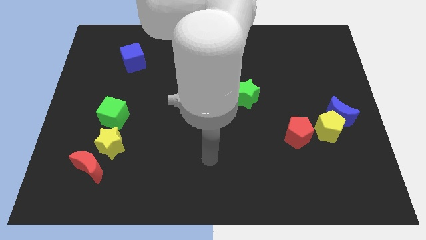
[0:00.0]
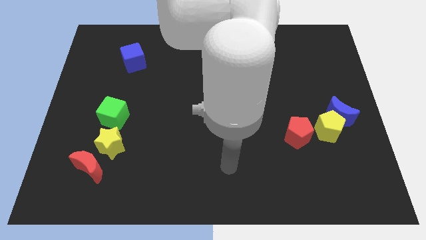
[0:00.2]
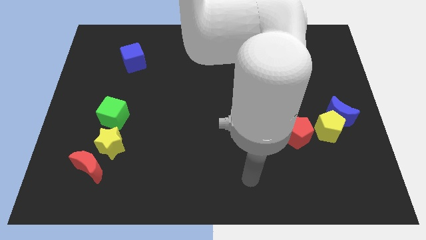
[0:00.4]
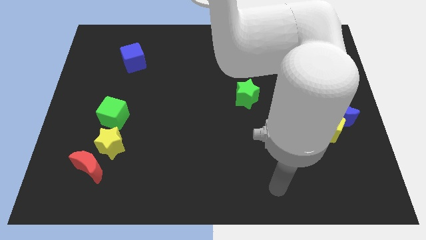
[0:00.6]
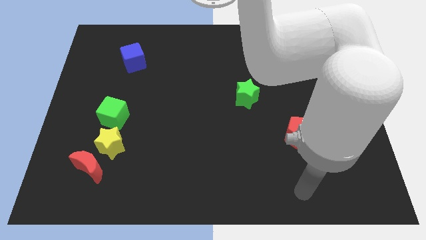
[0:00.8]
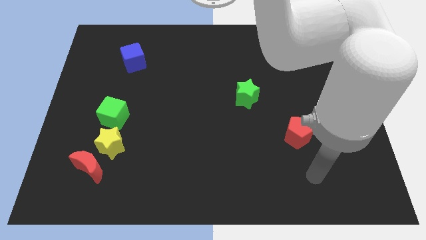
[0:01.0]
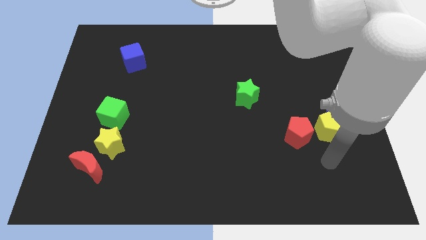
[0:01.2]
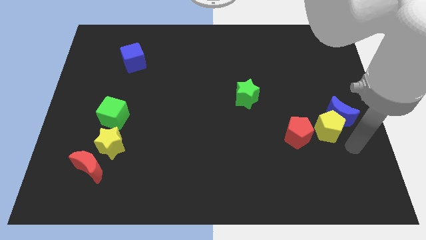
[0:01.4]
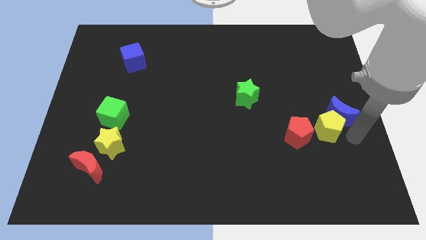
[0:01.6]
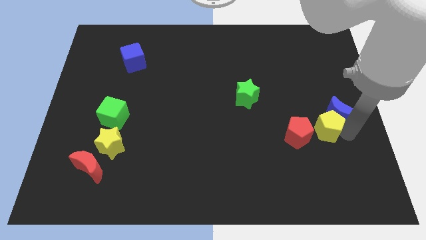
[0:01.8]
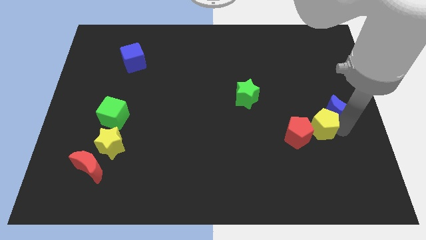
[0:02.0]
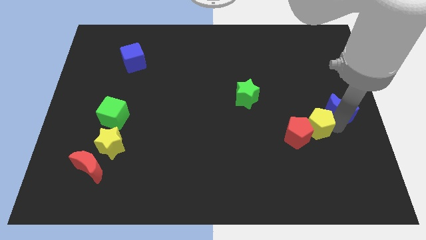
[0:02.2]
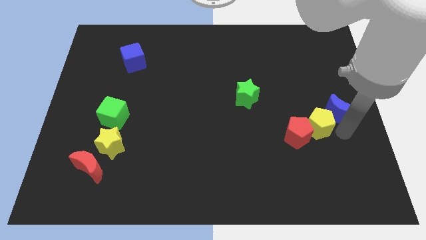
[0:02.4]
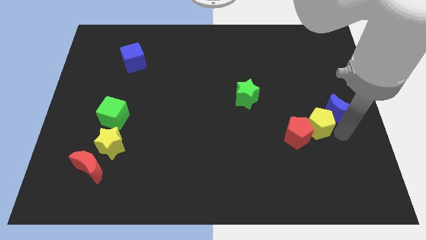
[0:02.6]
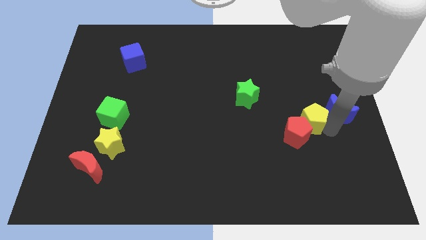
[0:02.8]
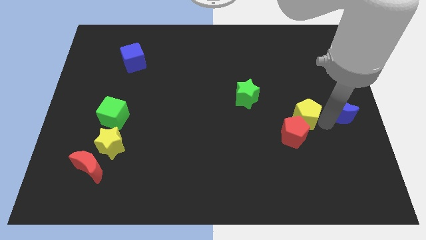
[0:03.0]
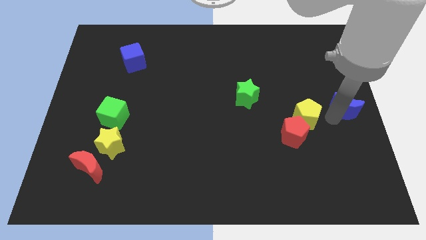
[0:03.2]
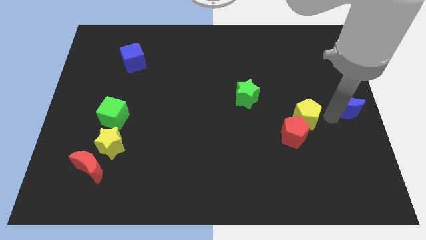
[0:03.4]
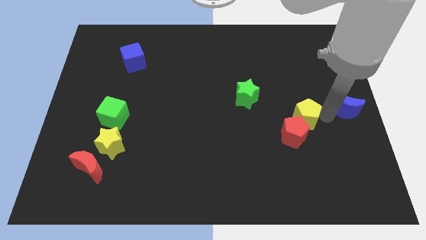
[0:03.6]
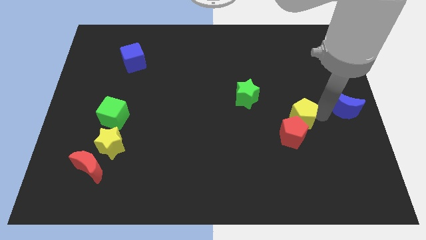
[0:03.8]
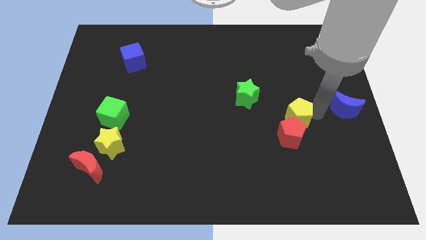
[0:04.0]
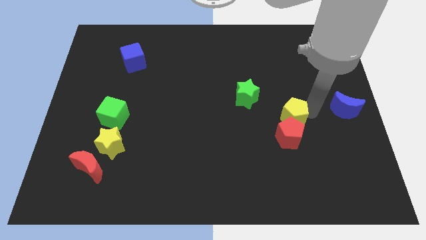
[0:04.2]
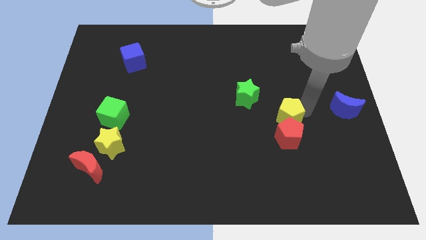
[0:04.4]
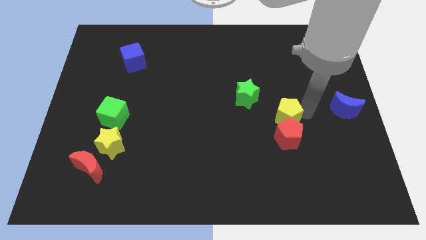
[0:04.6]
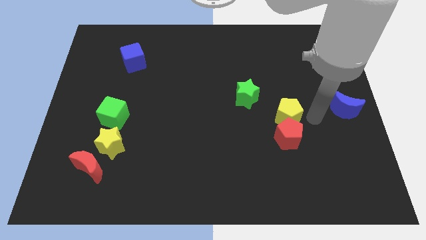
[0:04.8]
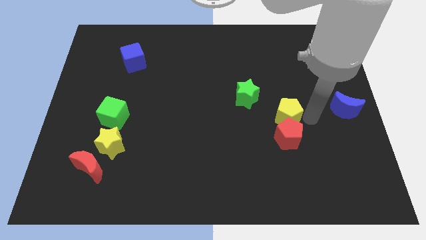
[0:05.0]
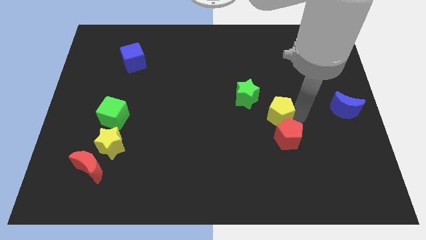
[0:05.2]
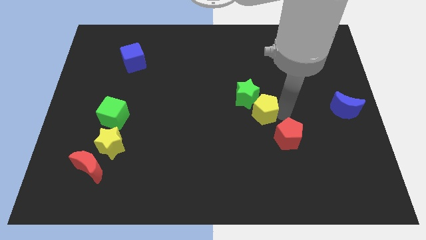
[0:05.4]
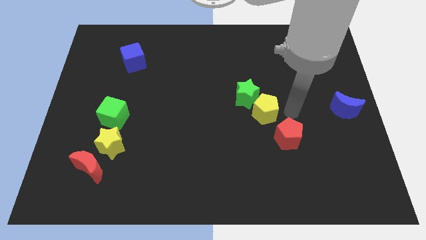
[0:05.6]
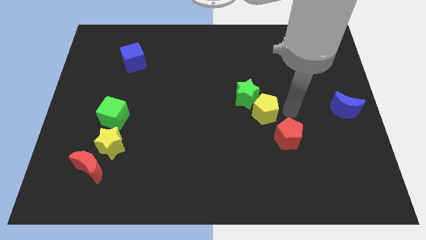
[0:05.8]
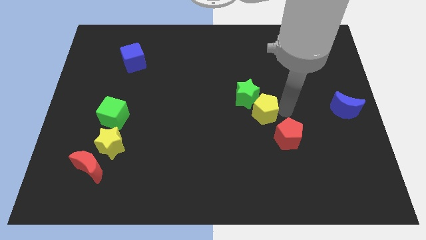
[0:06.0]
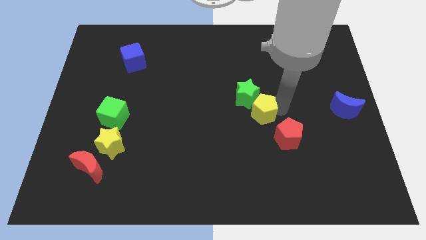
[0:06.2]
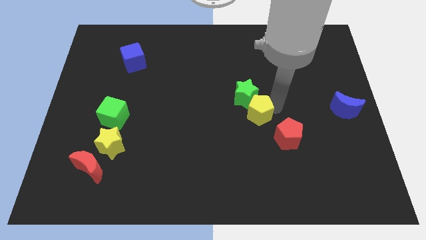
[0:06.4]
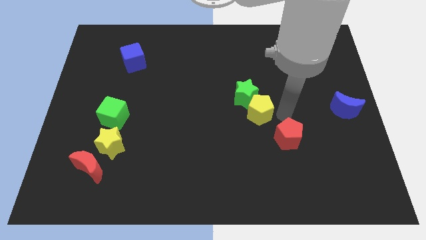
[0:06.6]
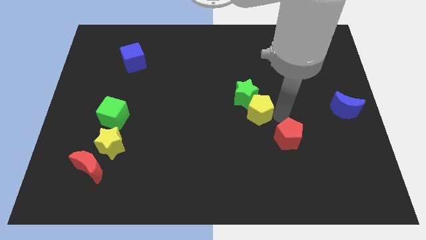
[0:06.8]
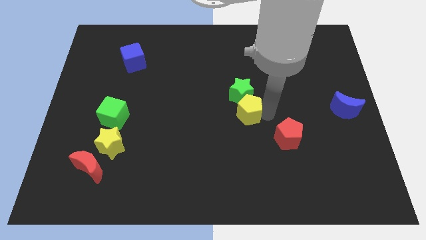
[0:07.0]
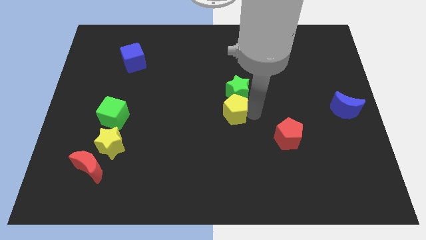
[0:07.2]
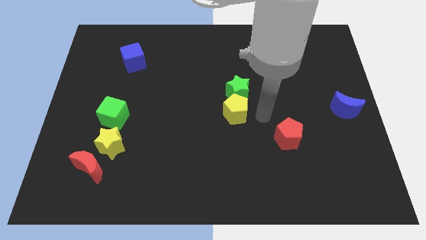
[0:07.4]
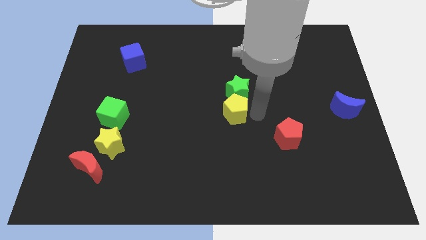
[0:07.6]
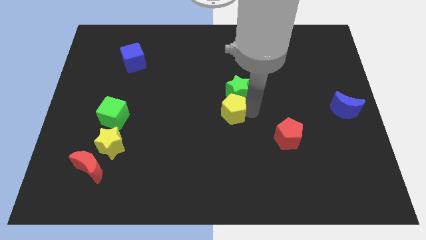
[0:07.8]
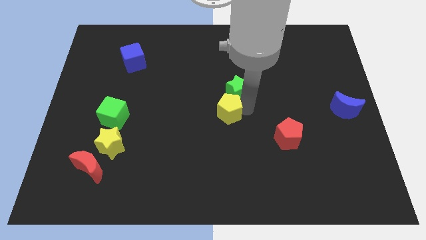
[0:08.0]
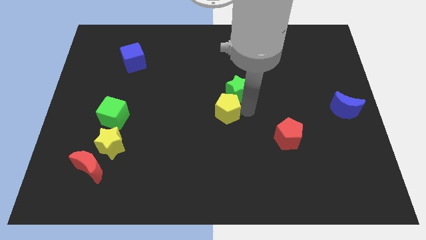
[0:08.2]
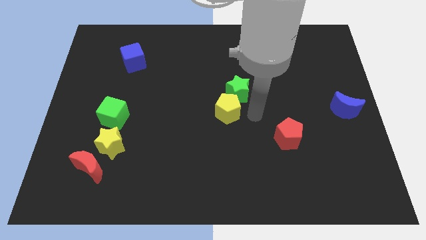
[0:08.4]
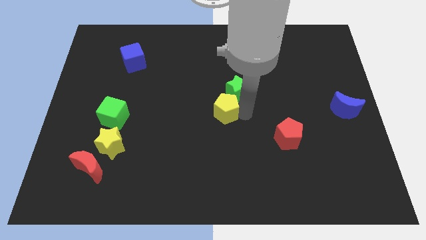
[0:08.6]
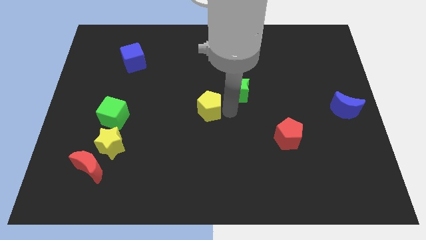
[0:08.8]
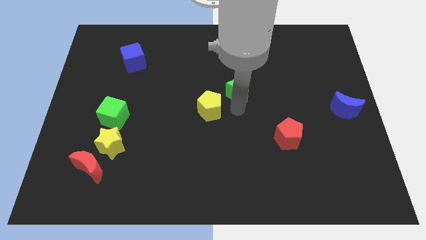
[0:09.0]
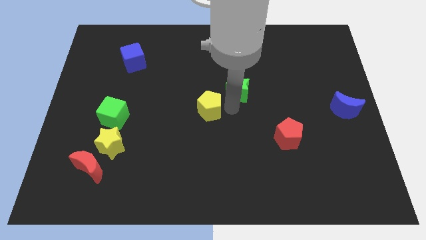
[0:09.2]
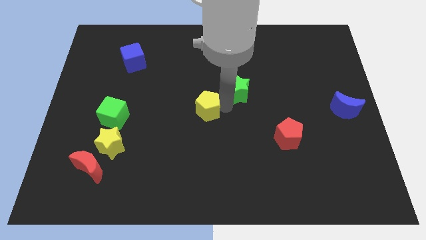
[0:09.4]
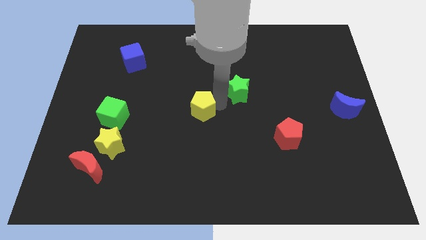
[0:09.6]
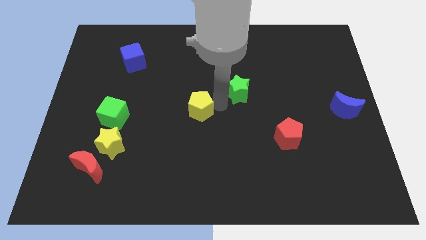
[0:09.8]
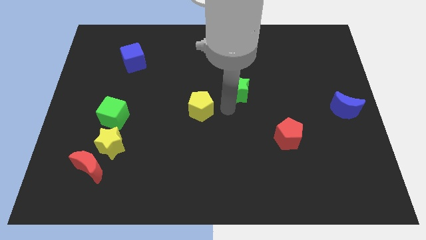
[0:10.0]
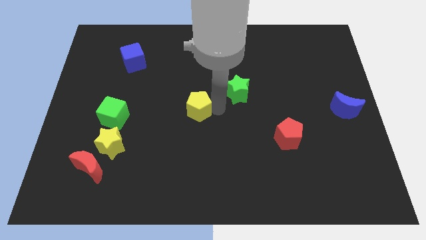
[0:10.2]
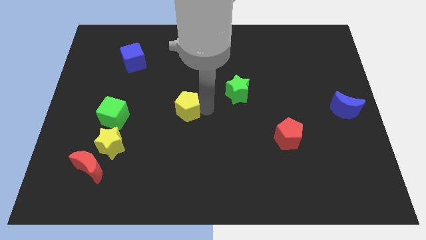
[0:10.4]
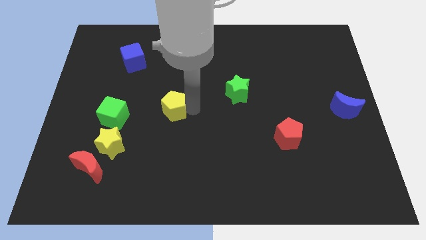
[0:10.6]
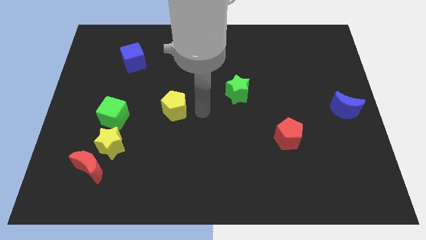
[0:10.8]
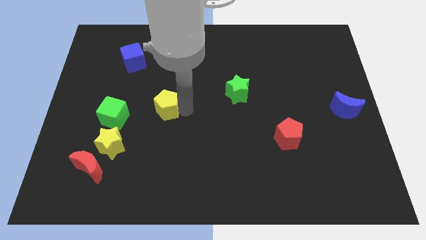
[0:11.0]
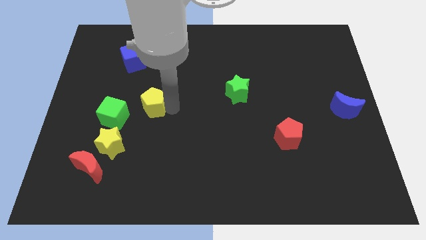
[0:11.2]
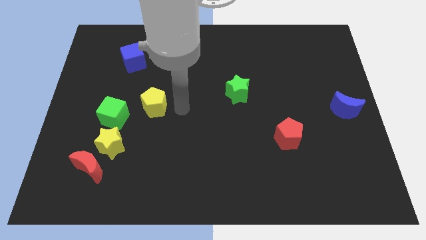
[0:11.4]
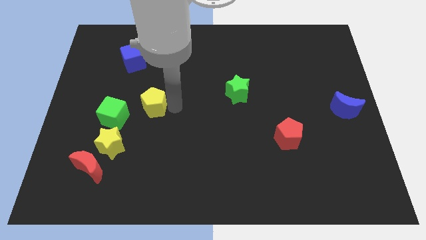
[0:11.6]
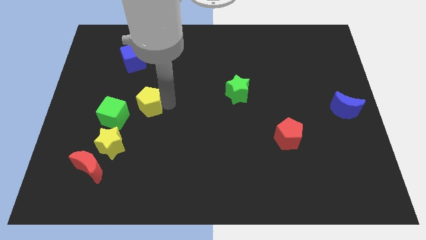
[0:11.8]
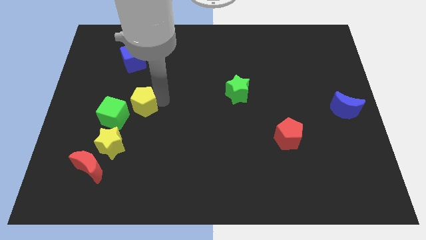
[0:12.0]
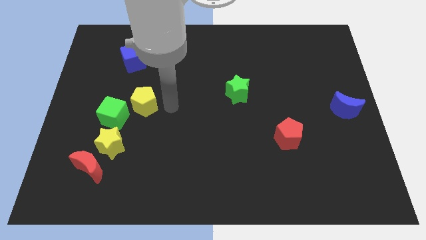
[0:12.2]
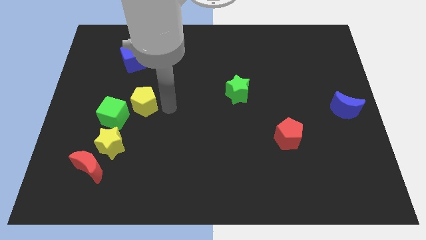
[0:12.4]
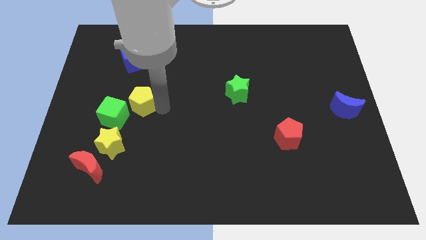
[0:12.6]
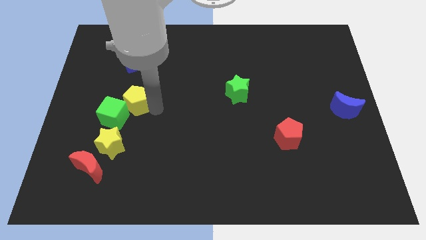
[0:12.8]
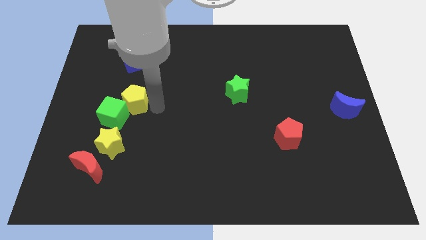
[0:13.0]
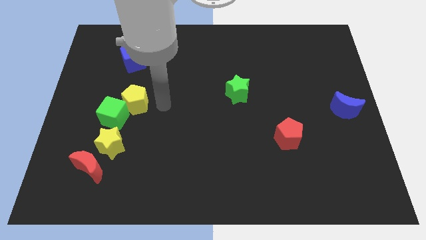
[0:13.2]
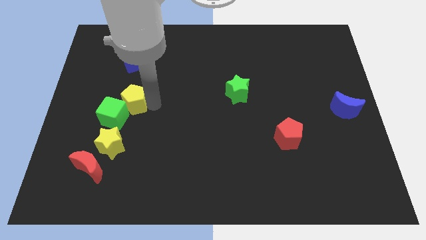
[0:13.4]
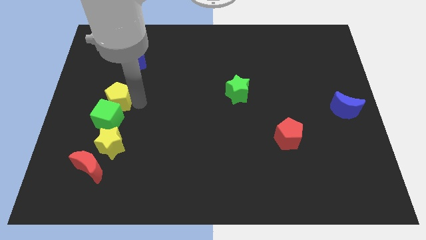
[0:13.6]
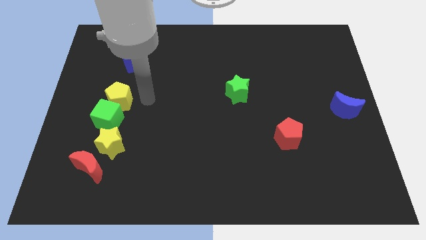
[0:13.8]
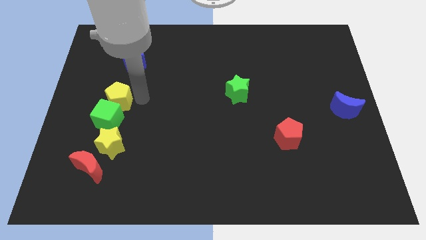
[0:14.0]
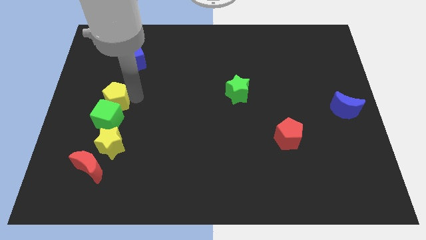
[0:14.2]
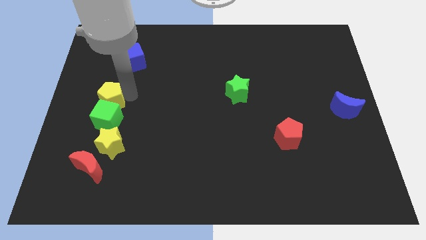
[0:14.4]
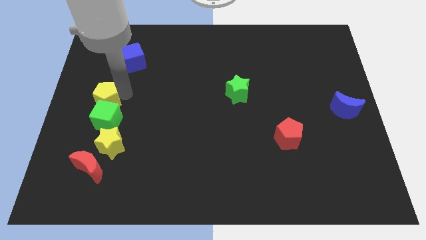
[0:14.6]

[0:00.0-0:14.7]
put the yellow pentagon to the left side of the board
